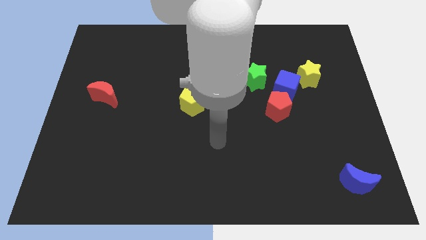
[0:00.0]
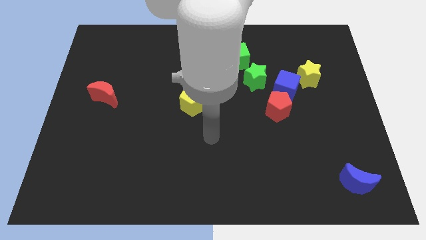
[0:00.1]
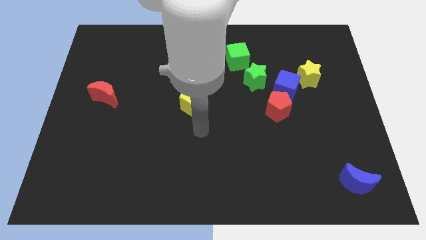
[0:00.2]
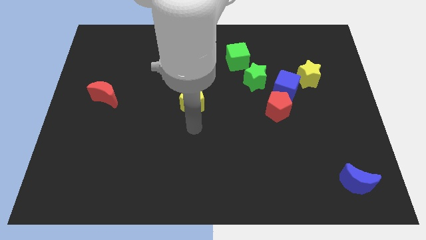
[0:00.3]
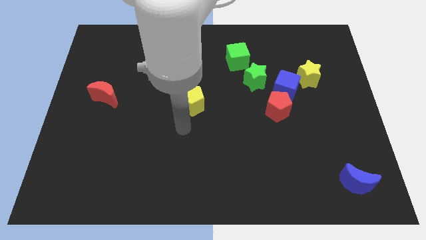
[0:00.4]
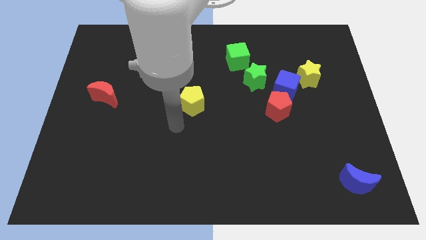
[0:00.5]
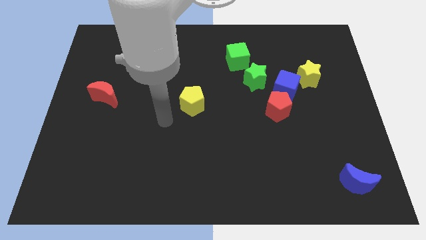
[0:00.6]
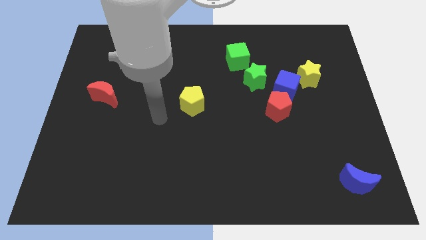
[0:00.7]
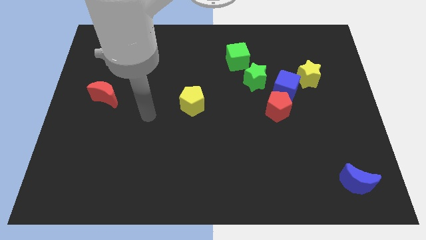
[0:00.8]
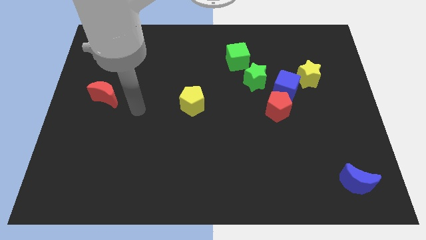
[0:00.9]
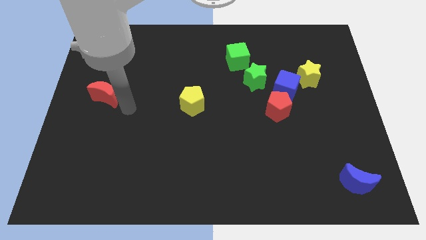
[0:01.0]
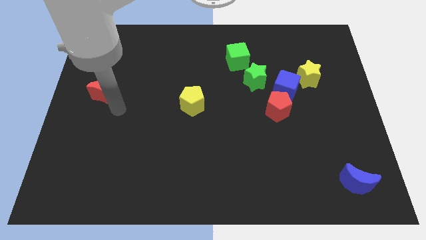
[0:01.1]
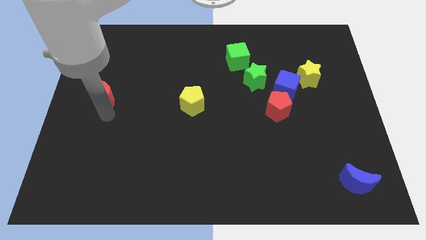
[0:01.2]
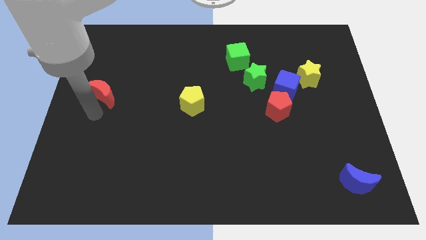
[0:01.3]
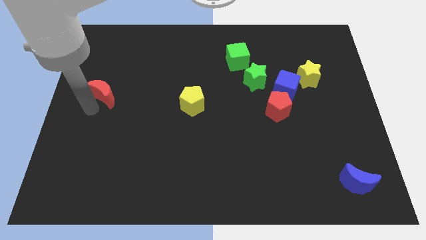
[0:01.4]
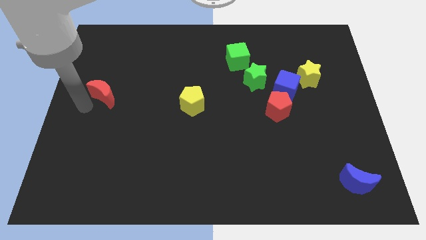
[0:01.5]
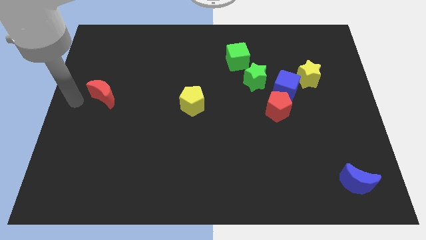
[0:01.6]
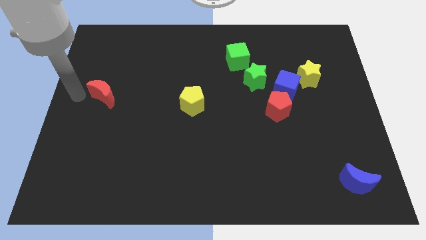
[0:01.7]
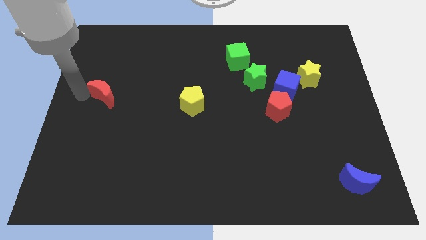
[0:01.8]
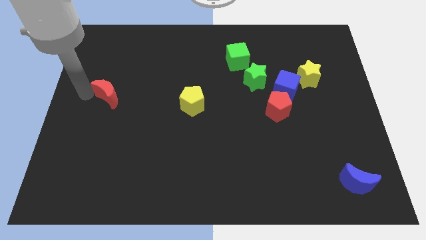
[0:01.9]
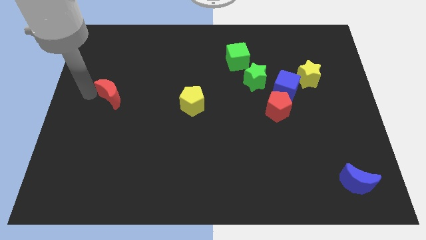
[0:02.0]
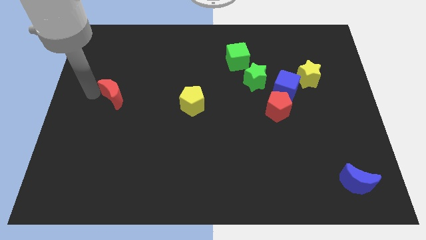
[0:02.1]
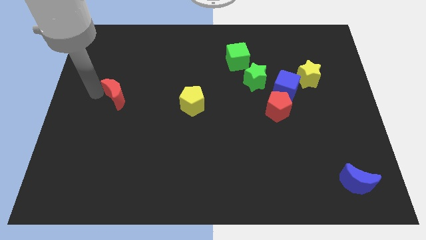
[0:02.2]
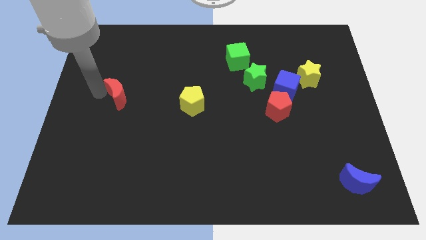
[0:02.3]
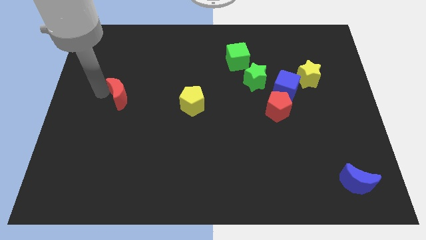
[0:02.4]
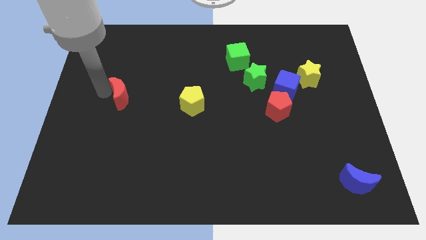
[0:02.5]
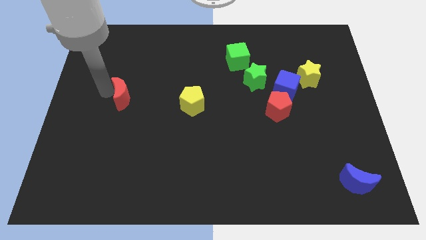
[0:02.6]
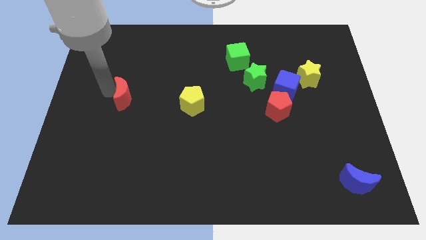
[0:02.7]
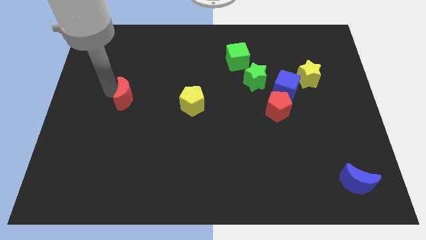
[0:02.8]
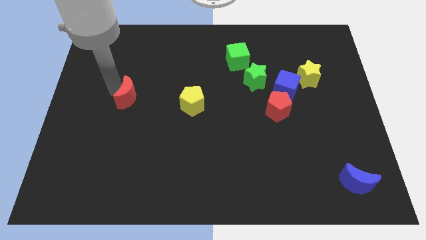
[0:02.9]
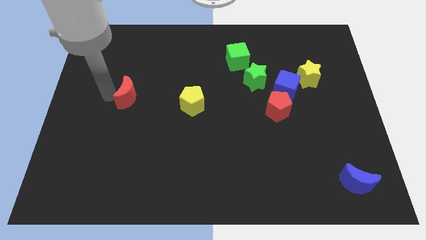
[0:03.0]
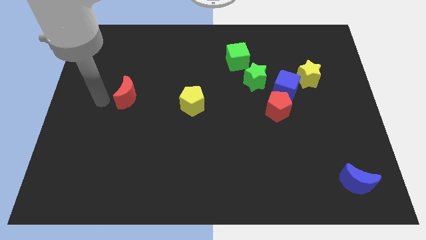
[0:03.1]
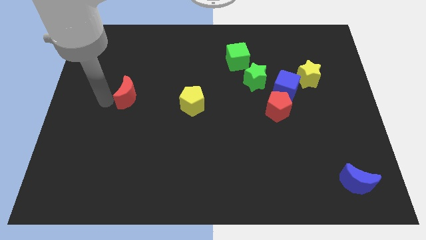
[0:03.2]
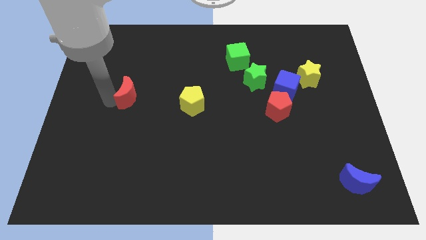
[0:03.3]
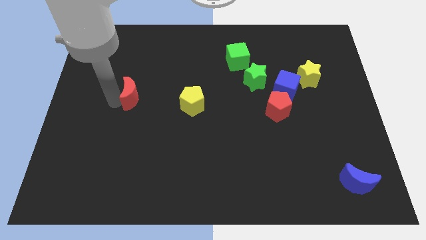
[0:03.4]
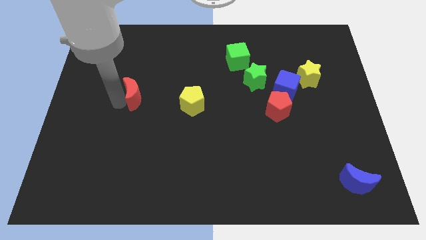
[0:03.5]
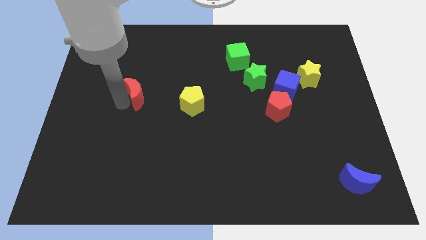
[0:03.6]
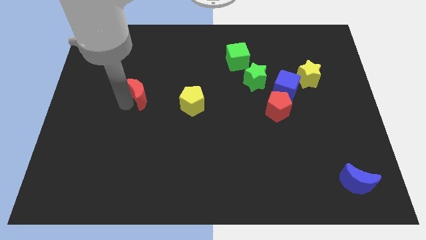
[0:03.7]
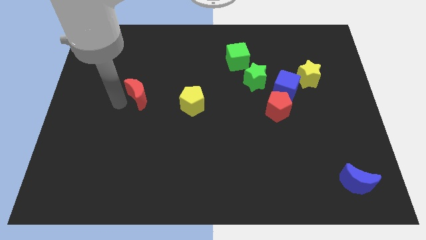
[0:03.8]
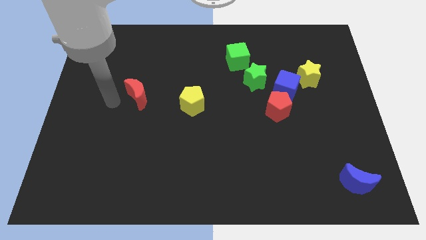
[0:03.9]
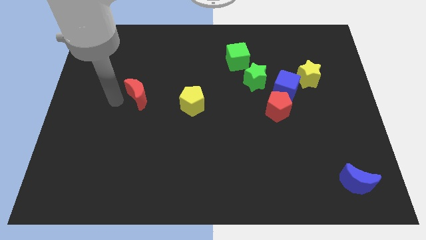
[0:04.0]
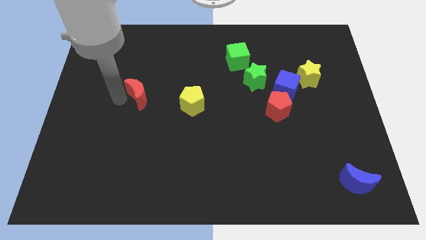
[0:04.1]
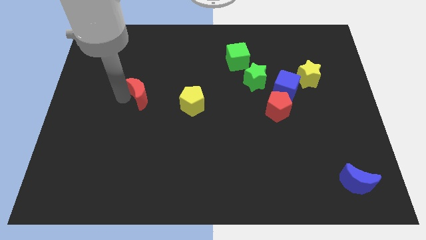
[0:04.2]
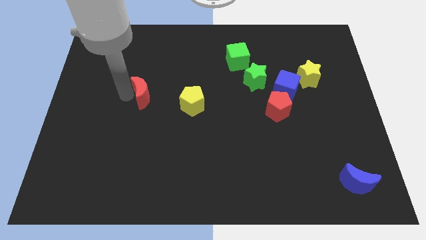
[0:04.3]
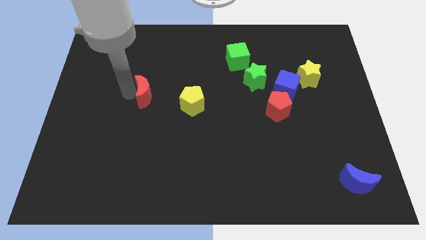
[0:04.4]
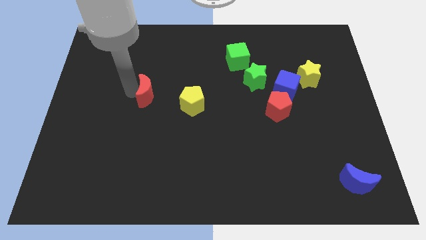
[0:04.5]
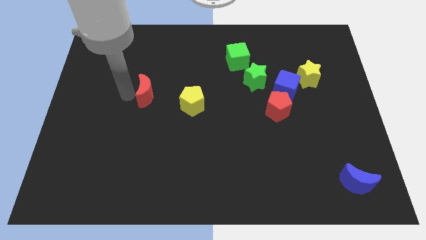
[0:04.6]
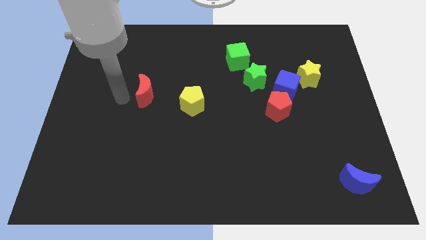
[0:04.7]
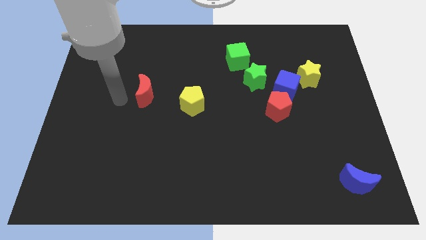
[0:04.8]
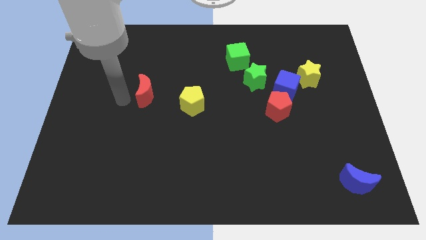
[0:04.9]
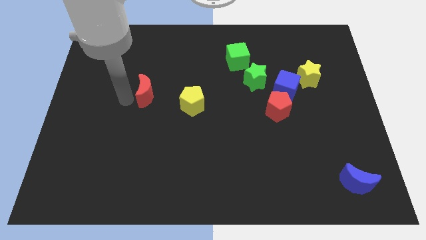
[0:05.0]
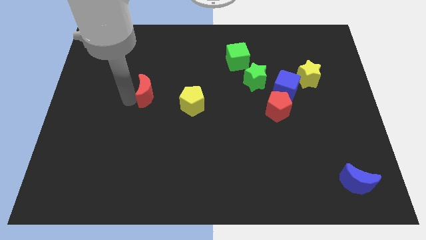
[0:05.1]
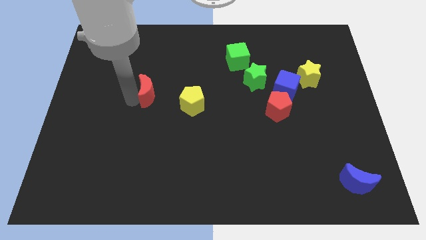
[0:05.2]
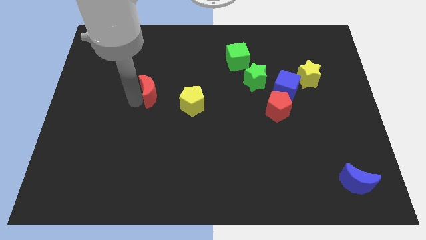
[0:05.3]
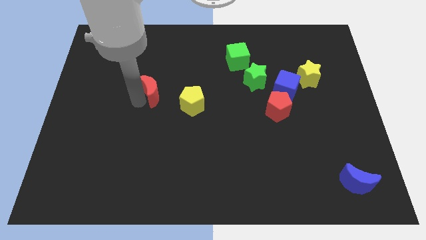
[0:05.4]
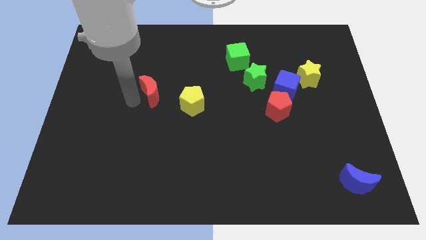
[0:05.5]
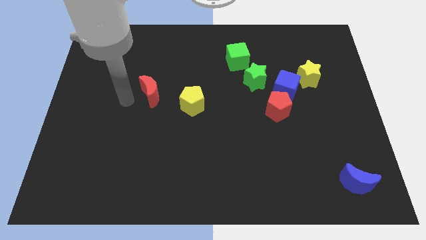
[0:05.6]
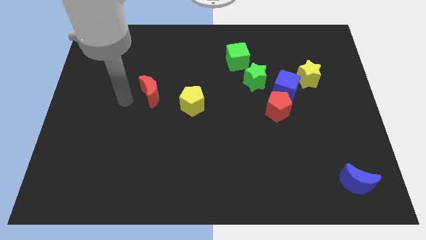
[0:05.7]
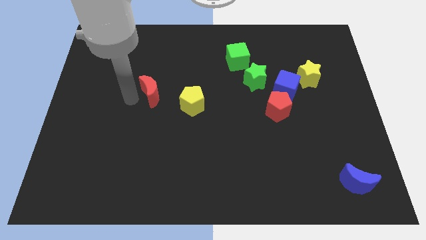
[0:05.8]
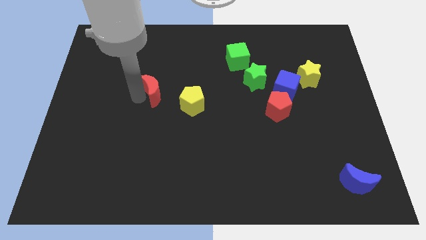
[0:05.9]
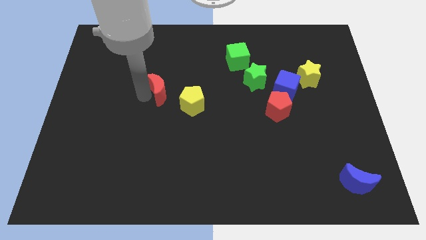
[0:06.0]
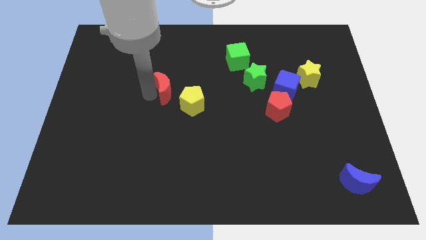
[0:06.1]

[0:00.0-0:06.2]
slide the red moon to the center of the board

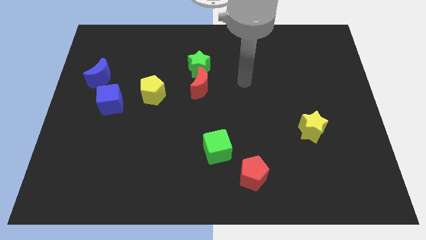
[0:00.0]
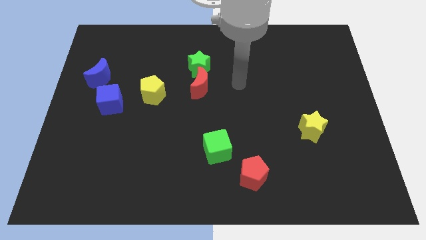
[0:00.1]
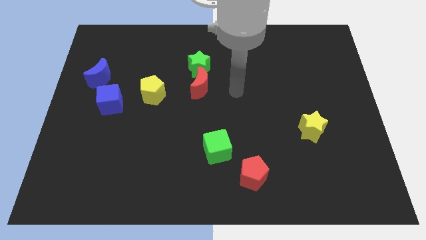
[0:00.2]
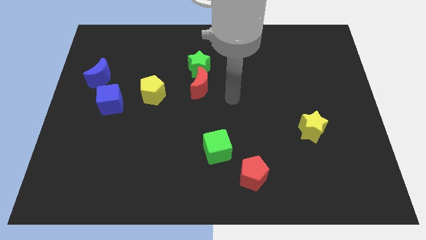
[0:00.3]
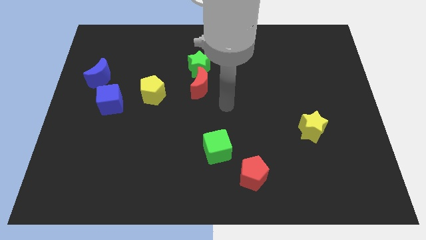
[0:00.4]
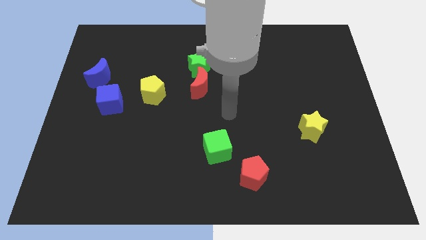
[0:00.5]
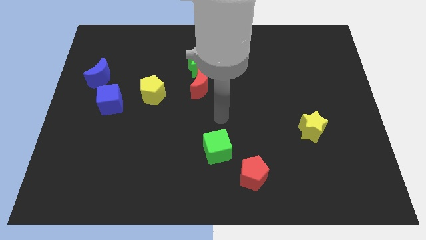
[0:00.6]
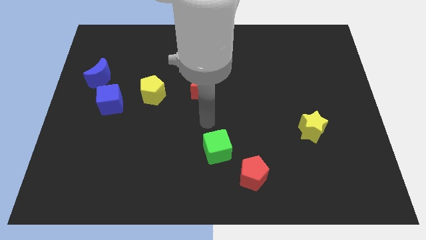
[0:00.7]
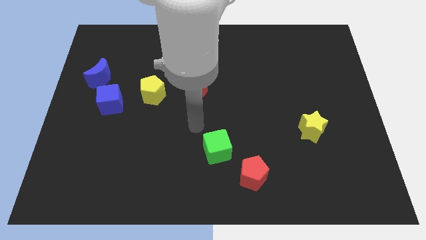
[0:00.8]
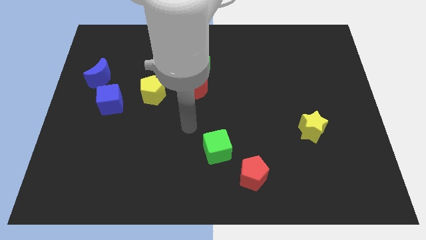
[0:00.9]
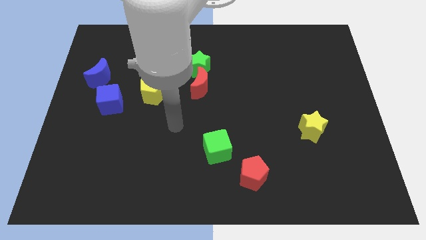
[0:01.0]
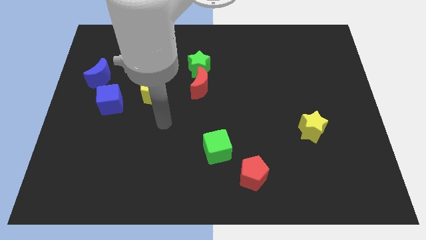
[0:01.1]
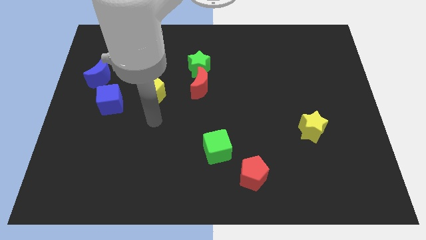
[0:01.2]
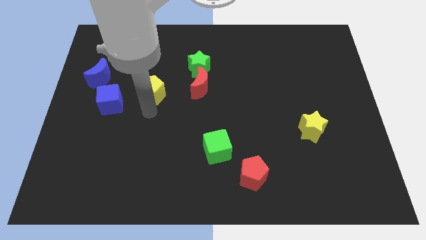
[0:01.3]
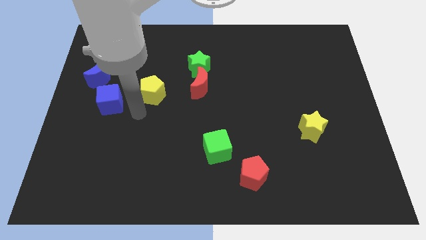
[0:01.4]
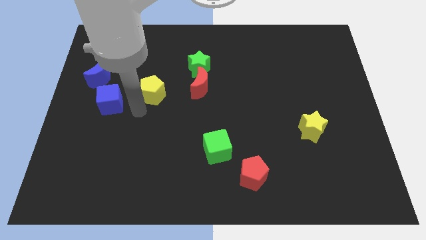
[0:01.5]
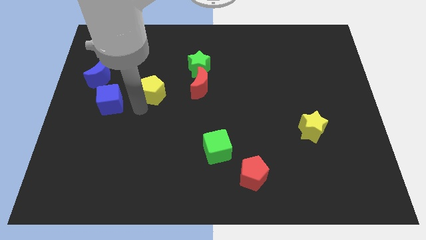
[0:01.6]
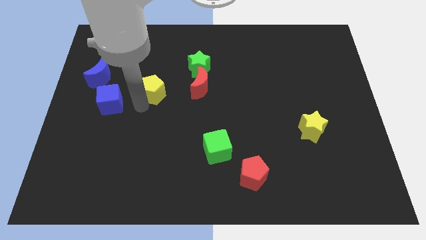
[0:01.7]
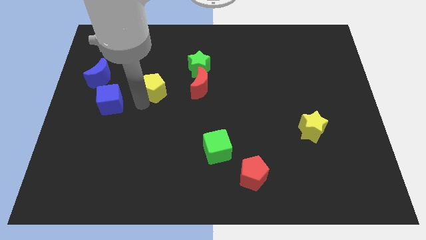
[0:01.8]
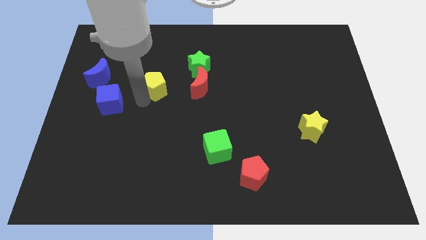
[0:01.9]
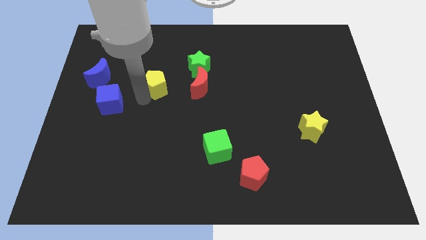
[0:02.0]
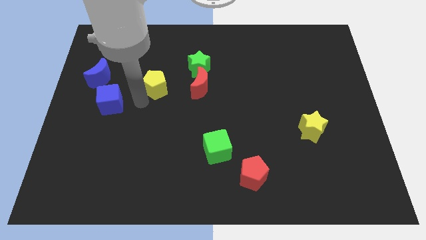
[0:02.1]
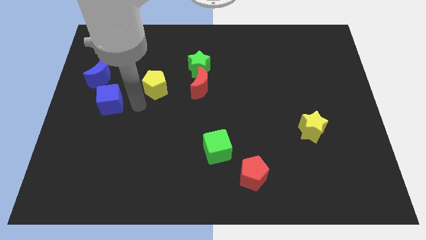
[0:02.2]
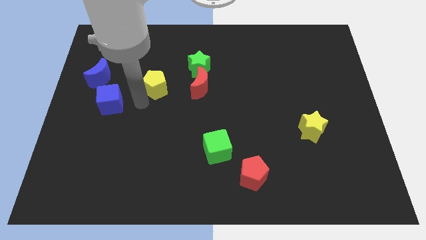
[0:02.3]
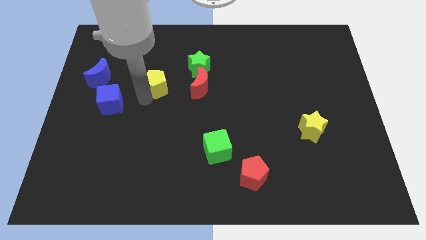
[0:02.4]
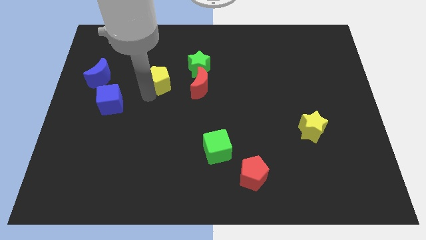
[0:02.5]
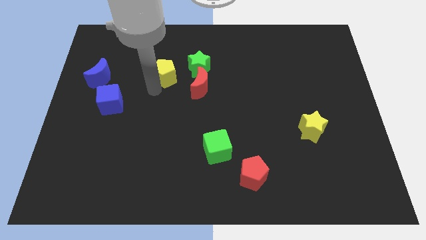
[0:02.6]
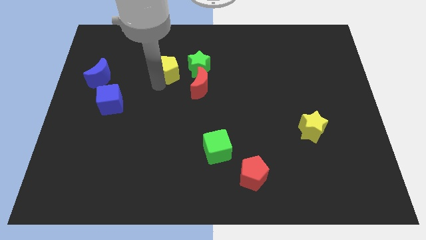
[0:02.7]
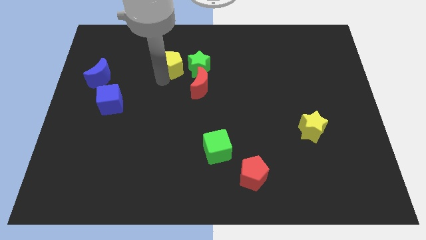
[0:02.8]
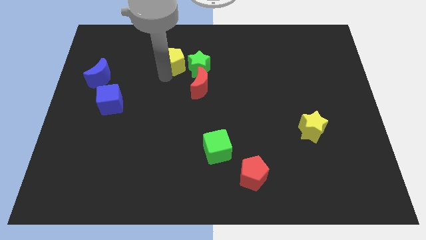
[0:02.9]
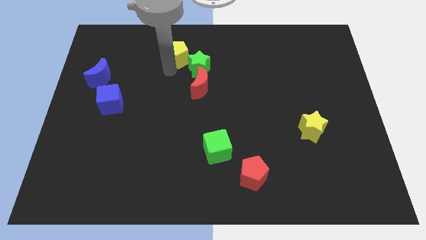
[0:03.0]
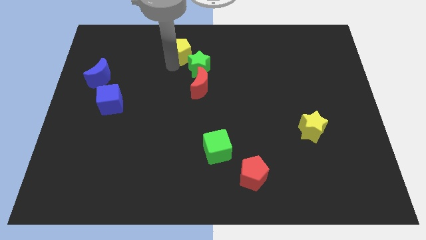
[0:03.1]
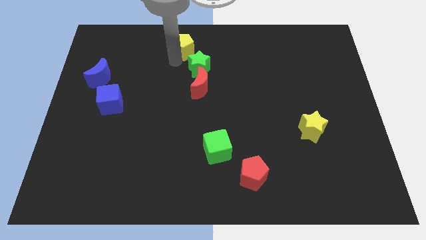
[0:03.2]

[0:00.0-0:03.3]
put the yellow pentagon to the top
